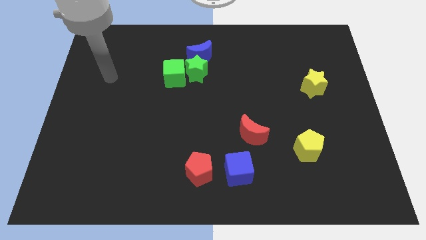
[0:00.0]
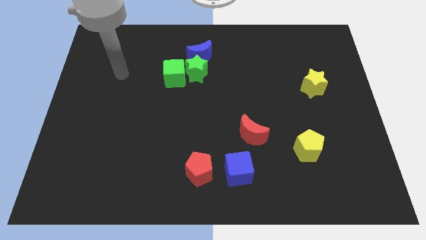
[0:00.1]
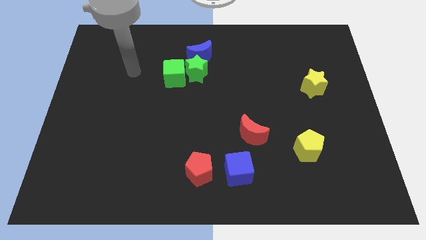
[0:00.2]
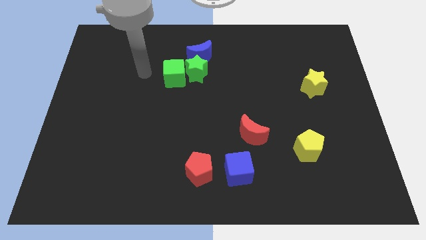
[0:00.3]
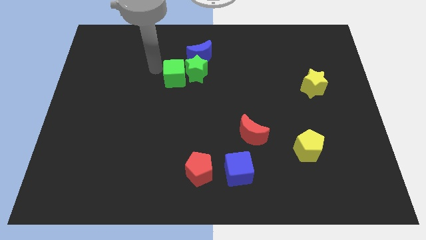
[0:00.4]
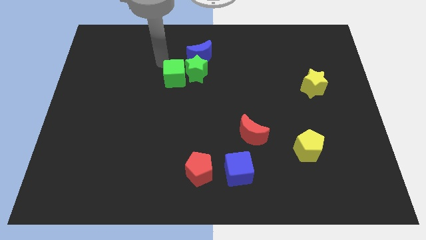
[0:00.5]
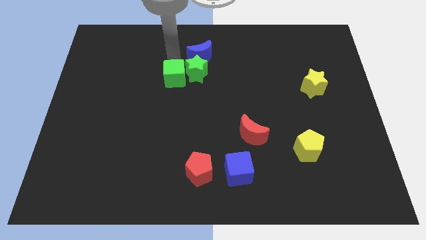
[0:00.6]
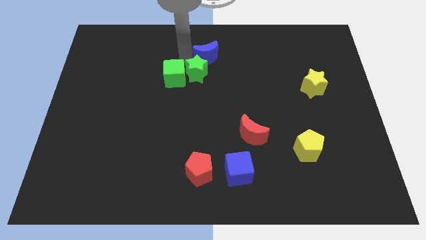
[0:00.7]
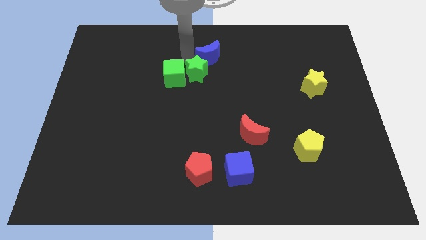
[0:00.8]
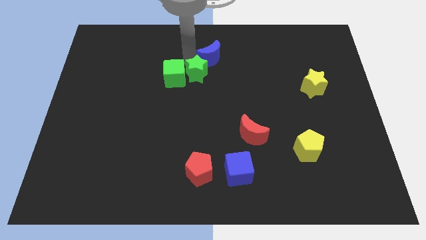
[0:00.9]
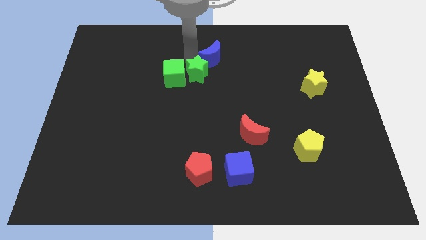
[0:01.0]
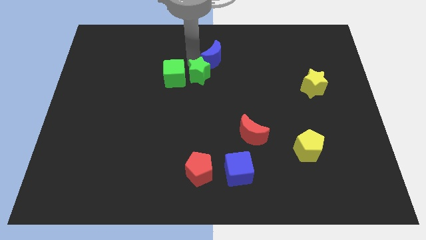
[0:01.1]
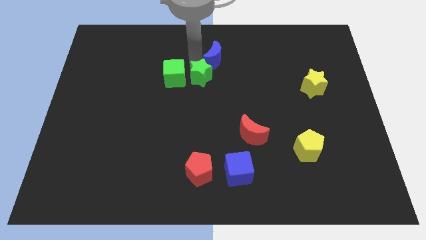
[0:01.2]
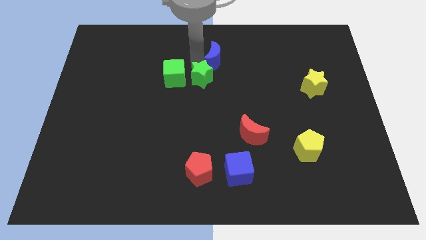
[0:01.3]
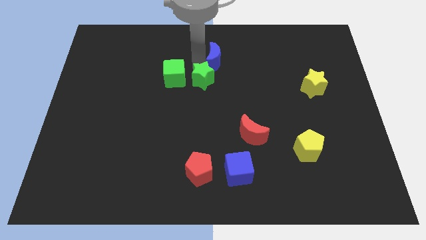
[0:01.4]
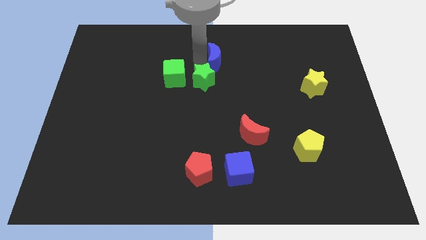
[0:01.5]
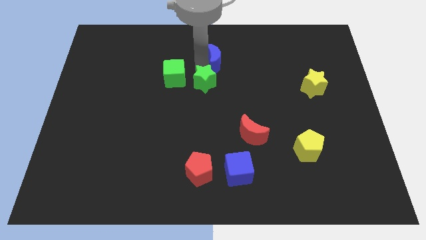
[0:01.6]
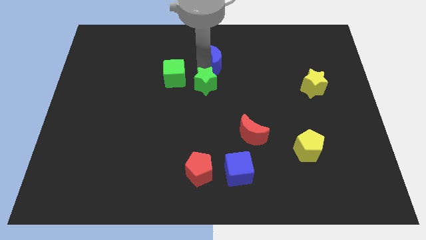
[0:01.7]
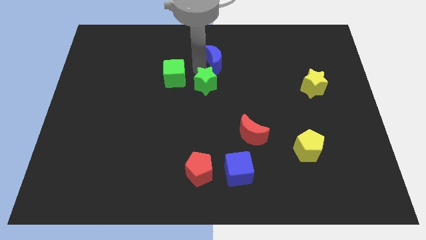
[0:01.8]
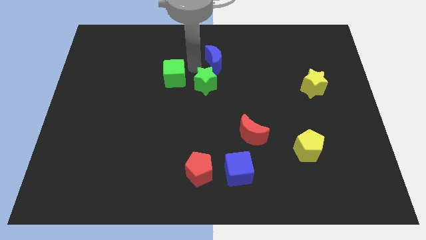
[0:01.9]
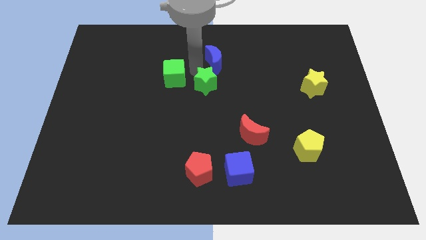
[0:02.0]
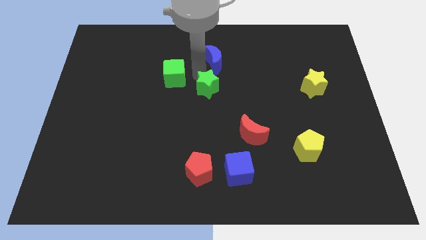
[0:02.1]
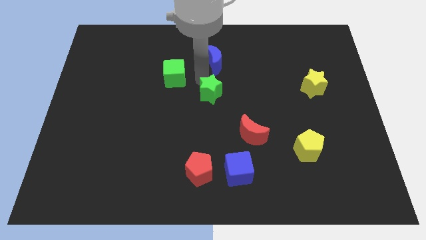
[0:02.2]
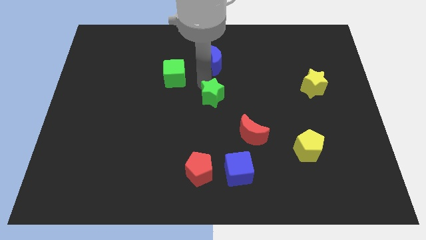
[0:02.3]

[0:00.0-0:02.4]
move the green star away from the green cube and blue moon

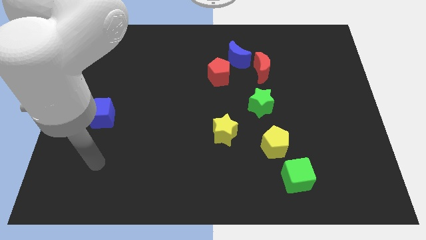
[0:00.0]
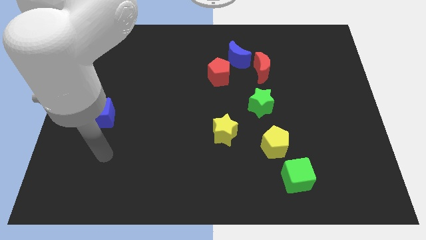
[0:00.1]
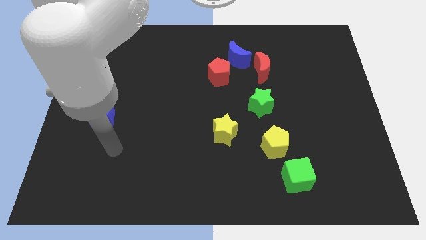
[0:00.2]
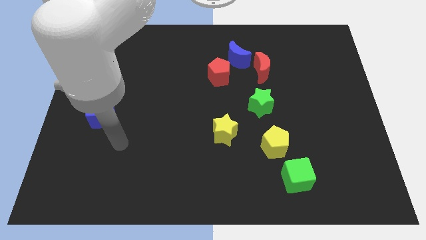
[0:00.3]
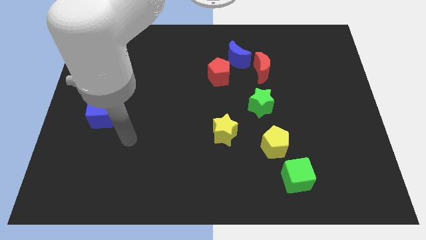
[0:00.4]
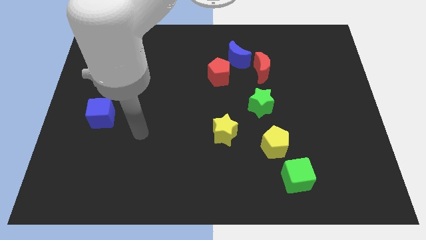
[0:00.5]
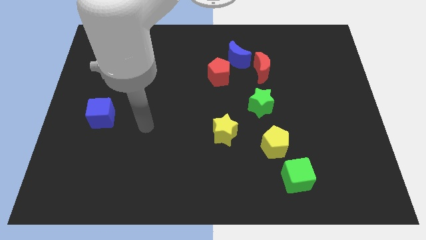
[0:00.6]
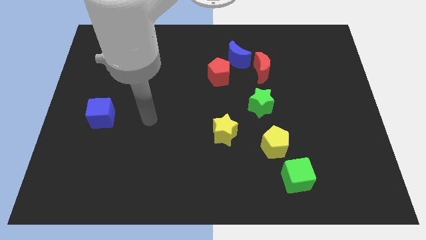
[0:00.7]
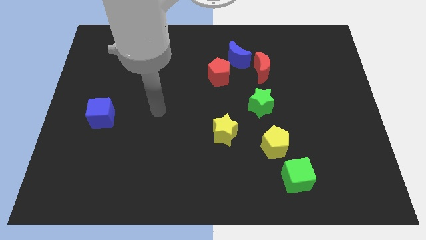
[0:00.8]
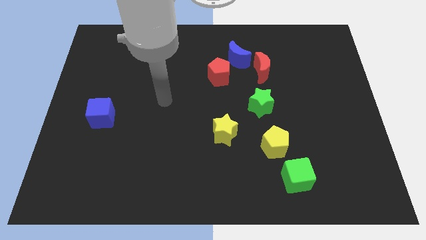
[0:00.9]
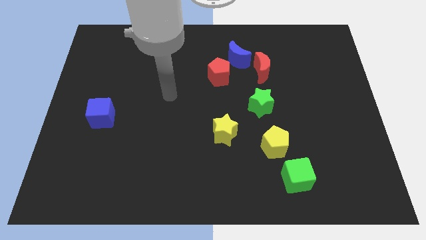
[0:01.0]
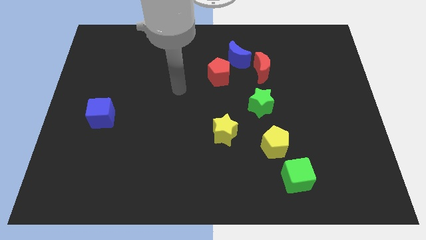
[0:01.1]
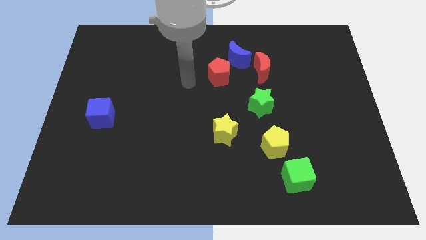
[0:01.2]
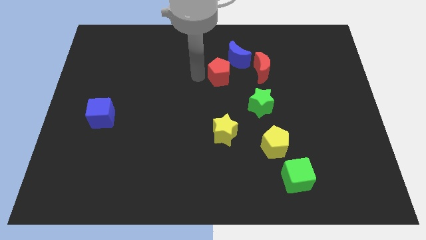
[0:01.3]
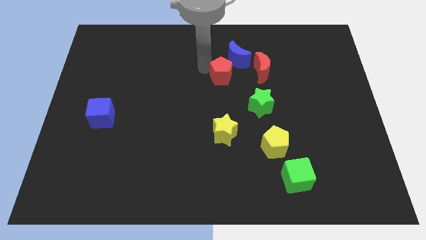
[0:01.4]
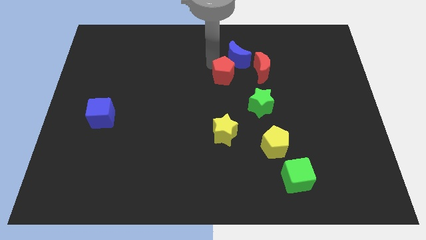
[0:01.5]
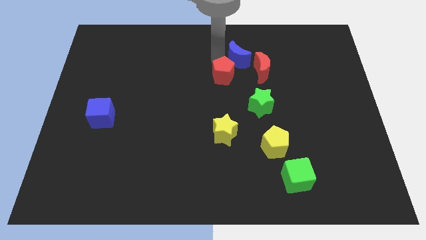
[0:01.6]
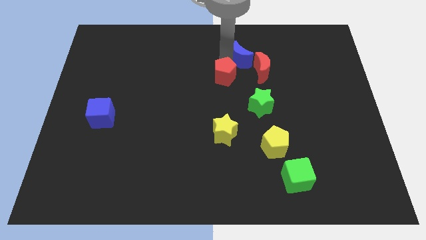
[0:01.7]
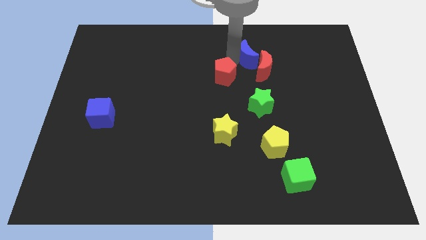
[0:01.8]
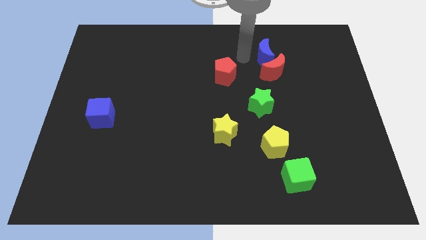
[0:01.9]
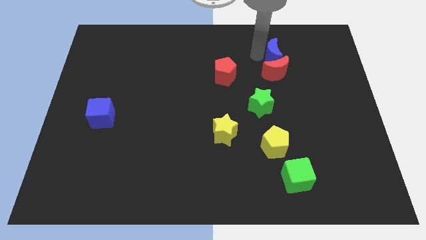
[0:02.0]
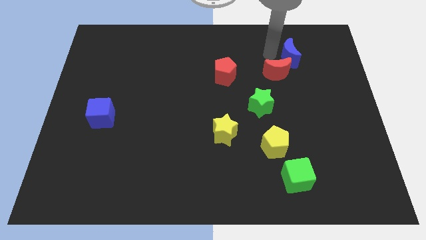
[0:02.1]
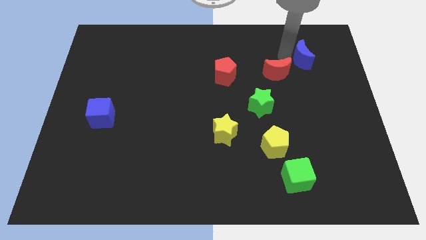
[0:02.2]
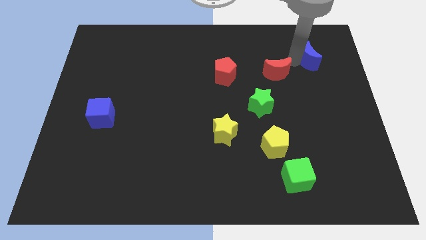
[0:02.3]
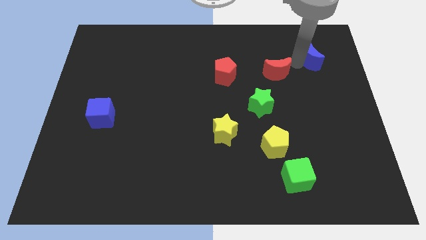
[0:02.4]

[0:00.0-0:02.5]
pull the red moon apart from the blue moon

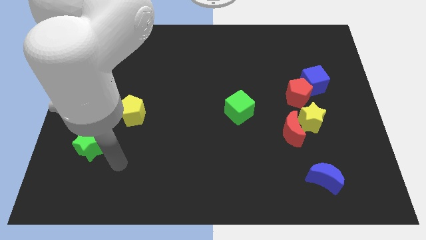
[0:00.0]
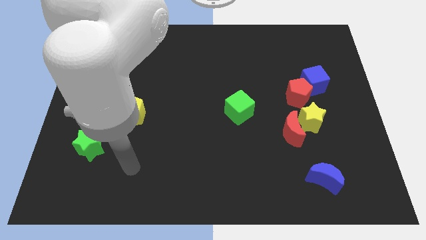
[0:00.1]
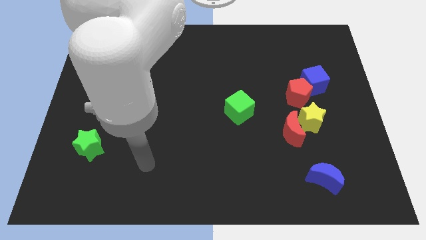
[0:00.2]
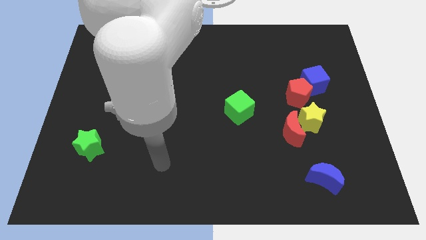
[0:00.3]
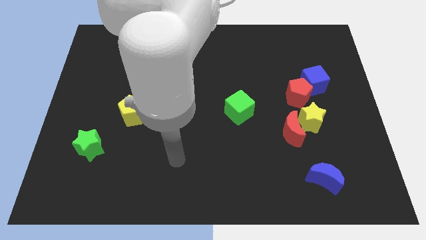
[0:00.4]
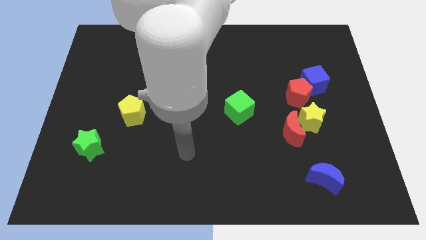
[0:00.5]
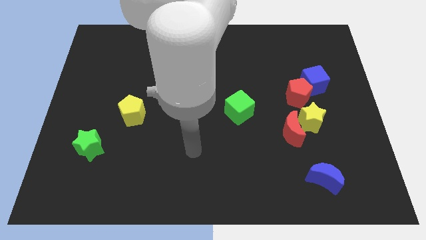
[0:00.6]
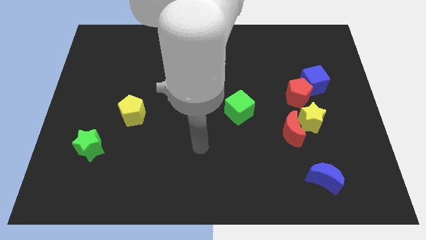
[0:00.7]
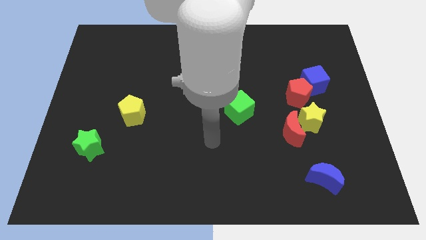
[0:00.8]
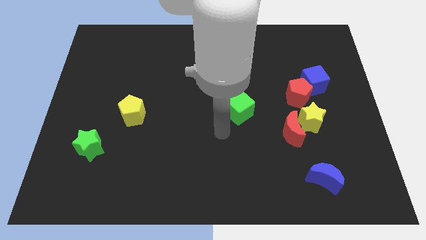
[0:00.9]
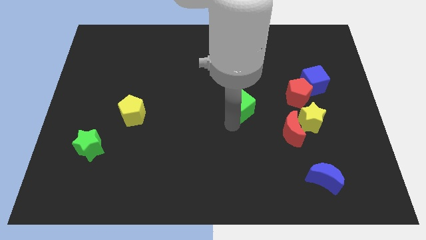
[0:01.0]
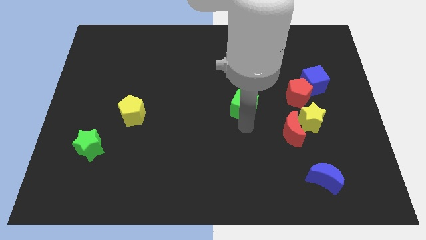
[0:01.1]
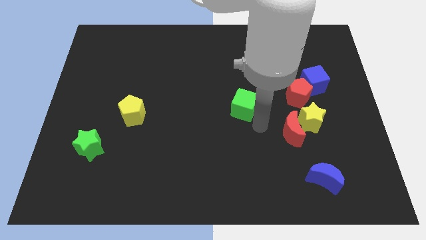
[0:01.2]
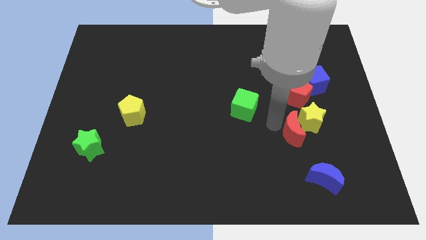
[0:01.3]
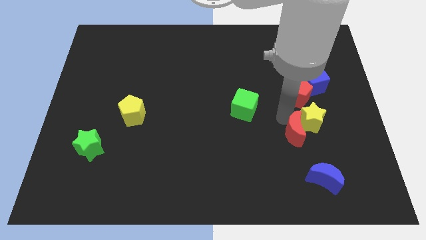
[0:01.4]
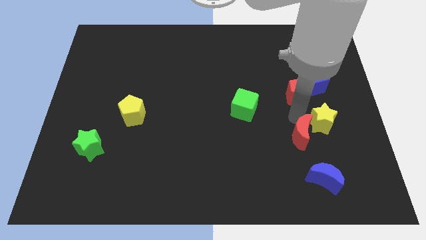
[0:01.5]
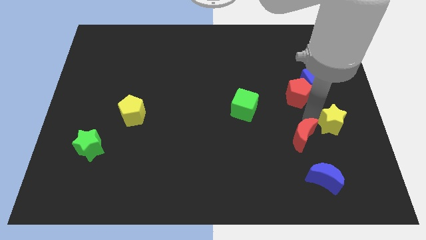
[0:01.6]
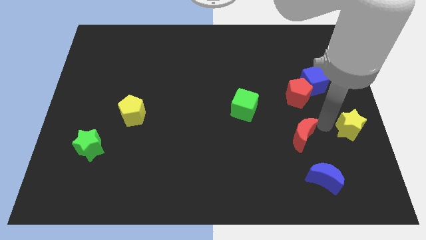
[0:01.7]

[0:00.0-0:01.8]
pull the red moon apart from the yellow star

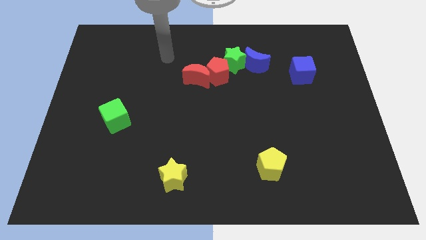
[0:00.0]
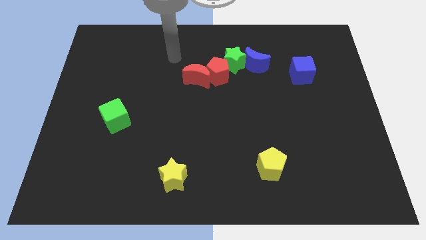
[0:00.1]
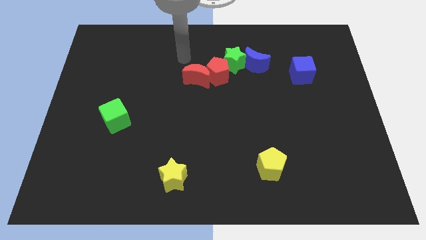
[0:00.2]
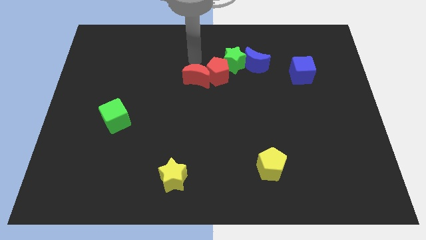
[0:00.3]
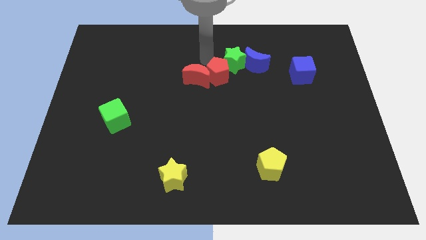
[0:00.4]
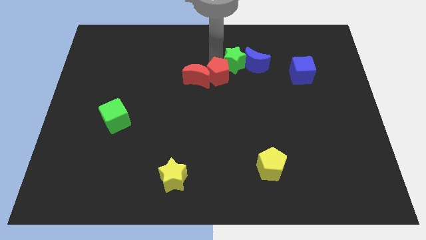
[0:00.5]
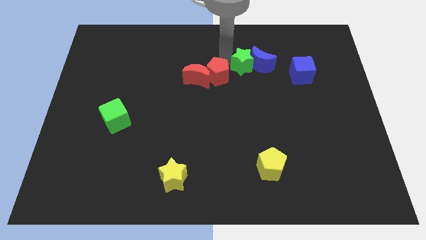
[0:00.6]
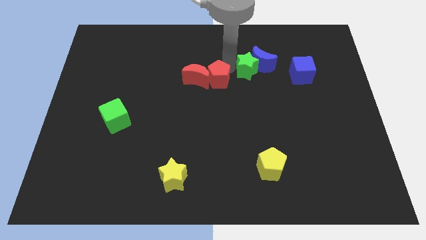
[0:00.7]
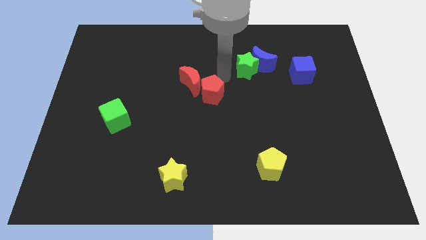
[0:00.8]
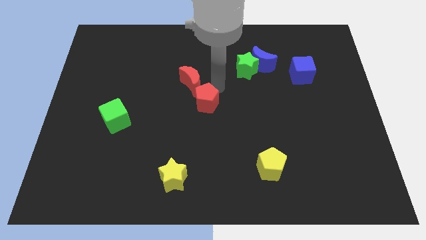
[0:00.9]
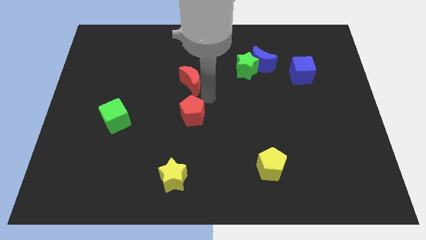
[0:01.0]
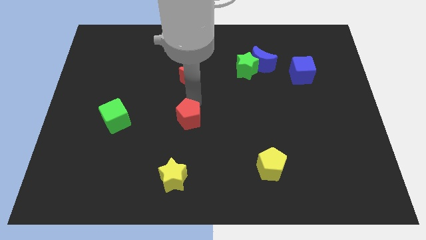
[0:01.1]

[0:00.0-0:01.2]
move the red moon away from the red pentagon

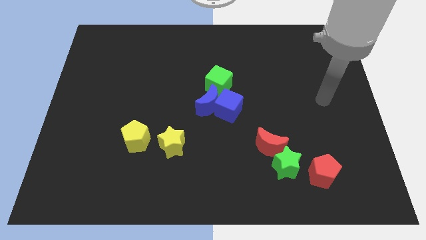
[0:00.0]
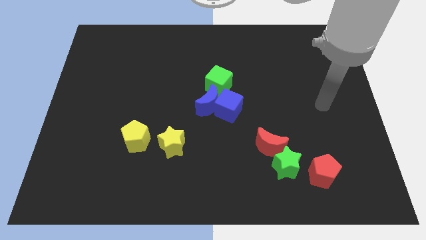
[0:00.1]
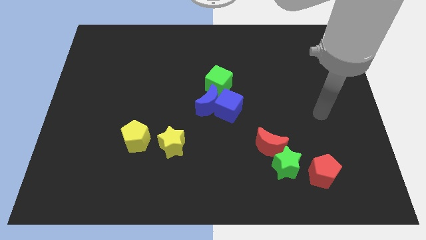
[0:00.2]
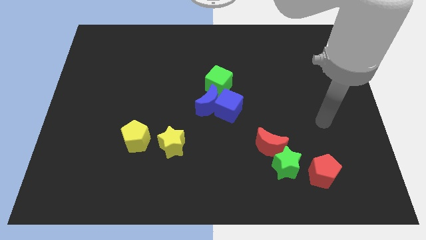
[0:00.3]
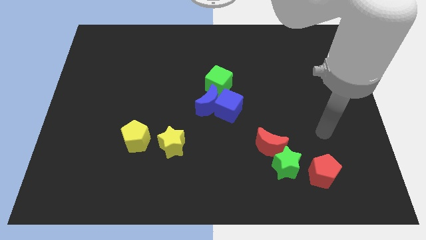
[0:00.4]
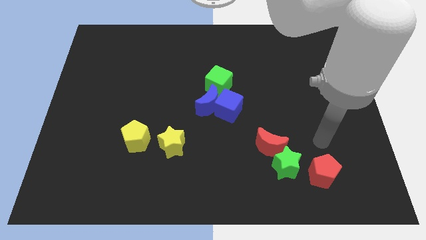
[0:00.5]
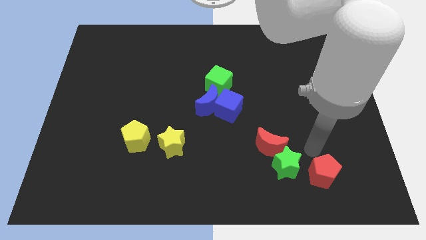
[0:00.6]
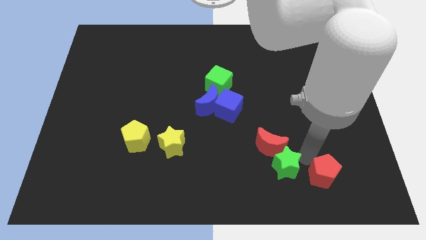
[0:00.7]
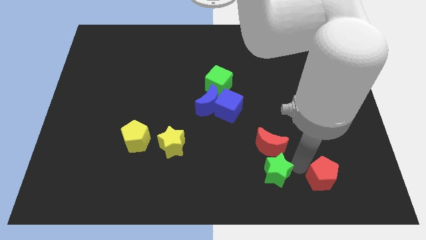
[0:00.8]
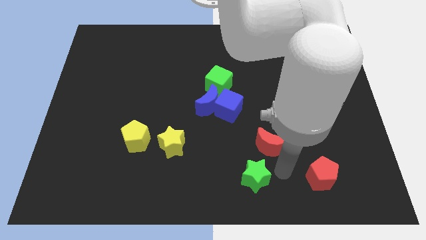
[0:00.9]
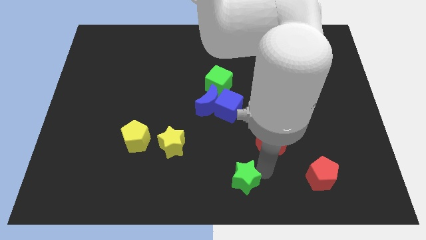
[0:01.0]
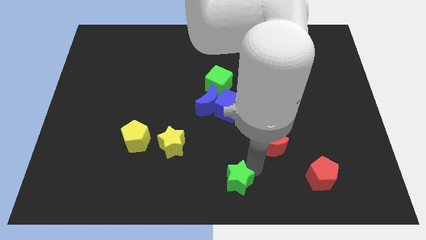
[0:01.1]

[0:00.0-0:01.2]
pull the red moon apart from the green star

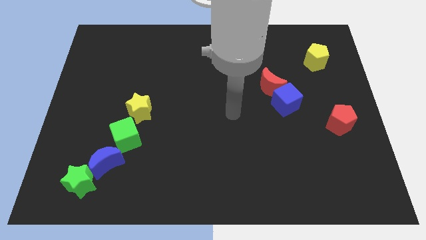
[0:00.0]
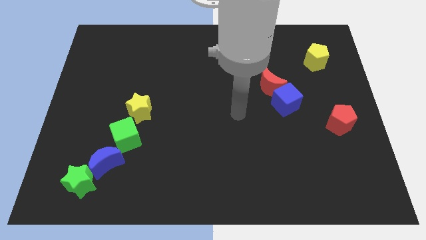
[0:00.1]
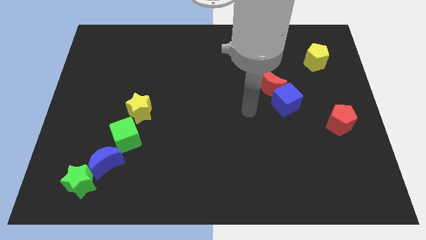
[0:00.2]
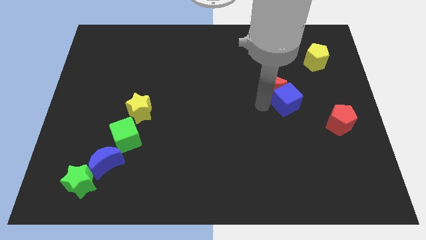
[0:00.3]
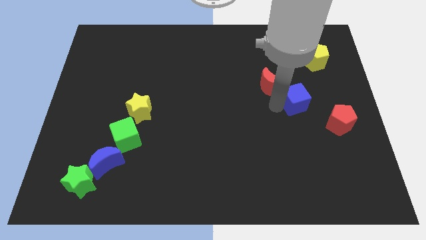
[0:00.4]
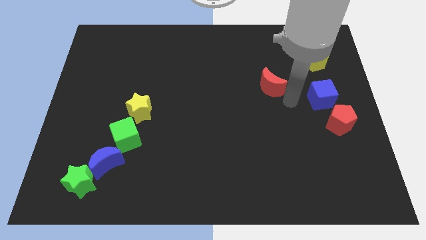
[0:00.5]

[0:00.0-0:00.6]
separate the red moon from the blue cube
